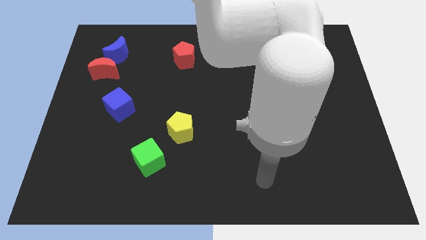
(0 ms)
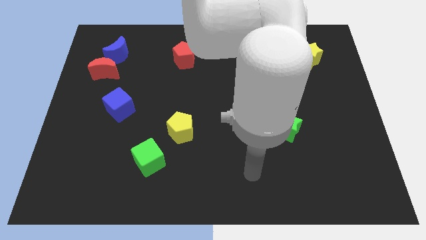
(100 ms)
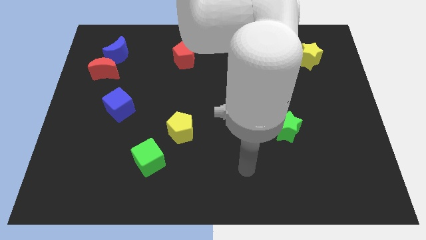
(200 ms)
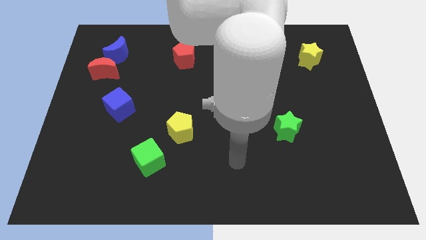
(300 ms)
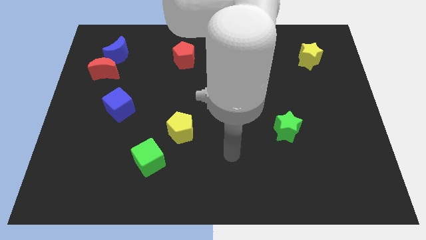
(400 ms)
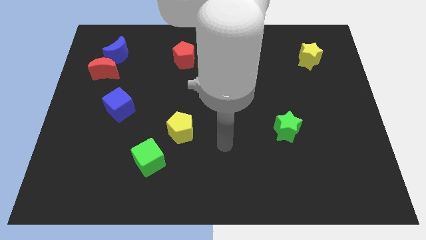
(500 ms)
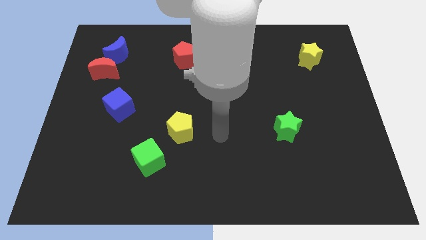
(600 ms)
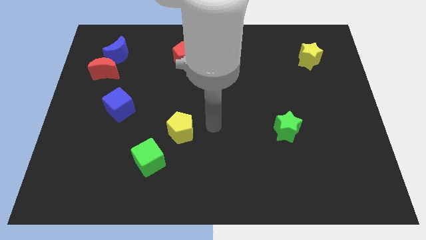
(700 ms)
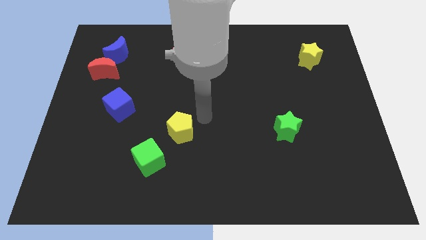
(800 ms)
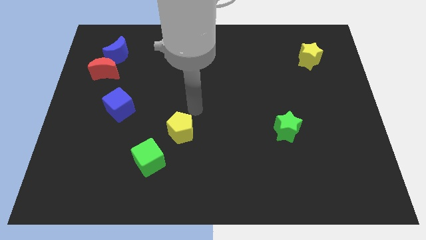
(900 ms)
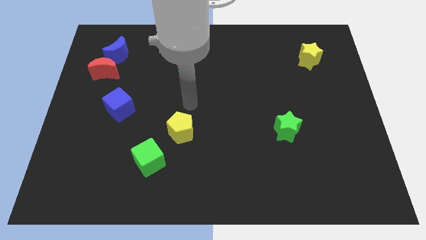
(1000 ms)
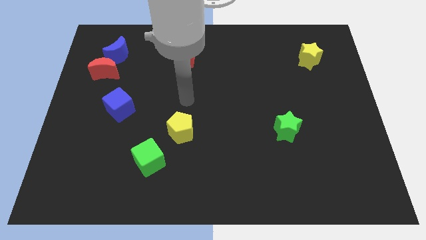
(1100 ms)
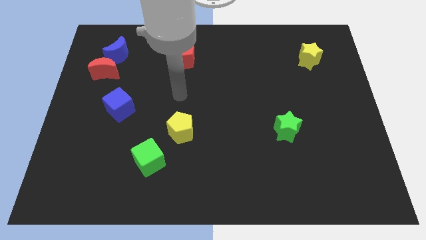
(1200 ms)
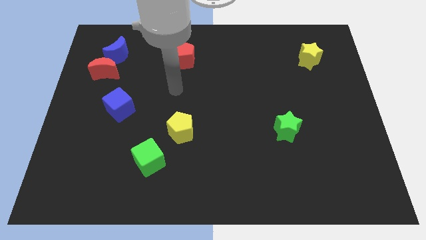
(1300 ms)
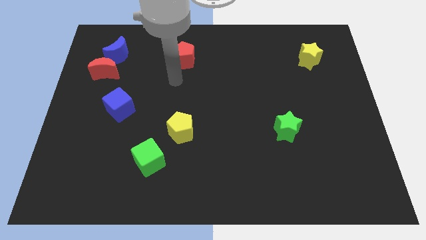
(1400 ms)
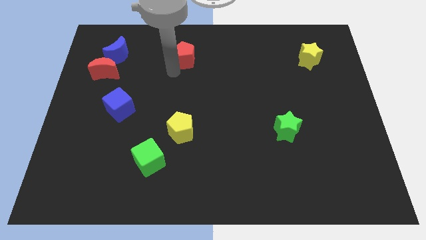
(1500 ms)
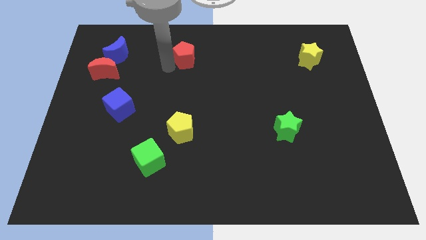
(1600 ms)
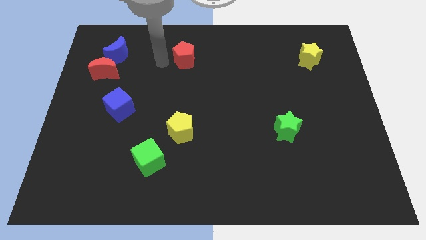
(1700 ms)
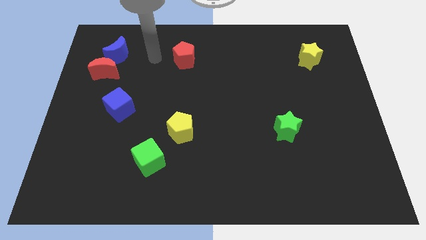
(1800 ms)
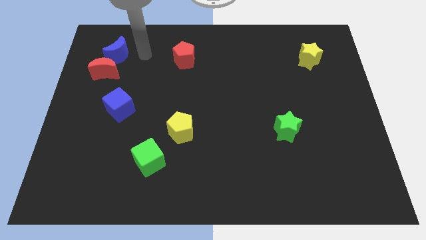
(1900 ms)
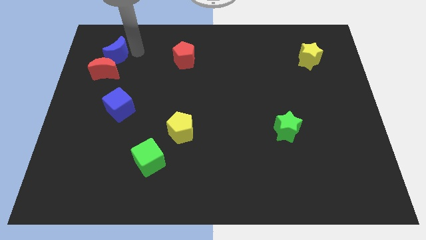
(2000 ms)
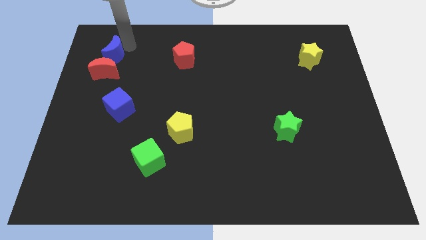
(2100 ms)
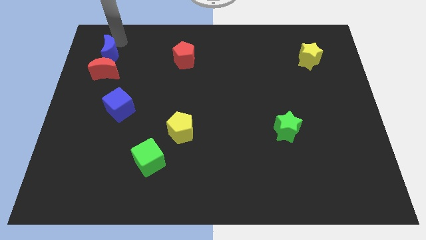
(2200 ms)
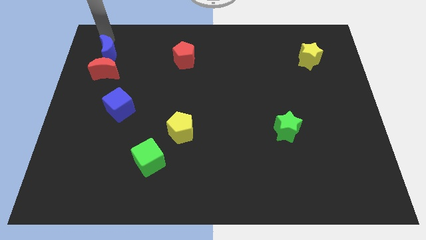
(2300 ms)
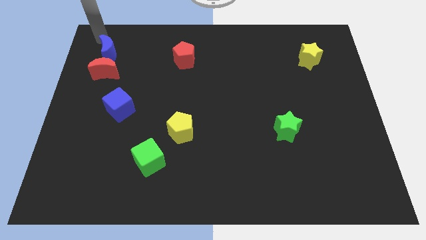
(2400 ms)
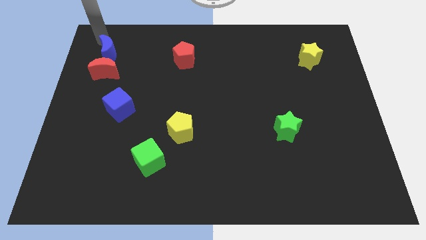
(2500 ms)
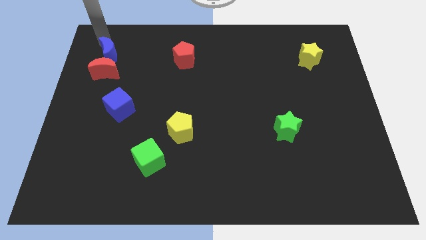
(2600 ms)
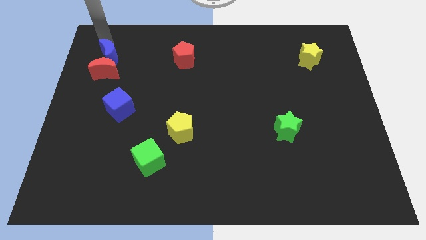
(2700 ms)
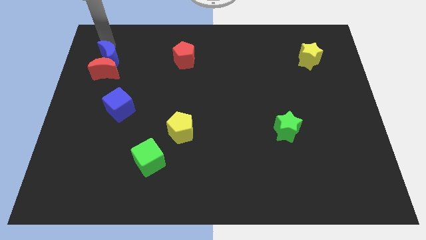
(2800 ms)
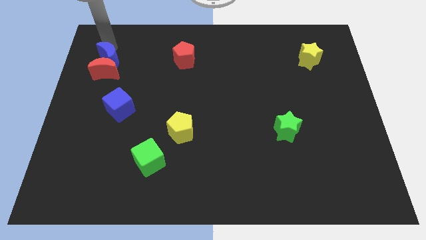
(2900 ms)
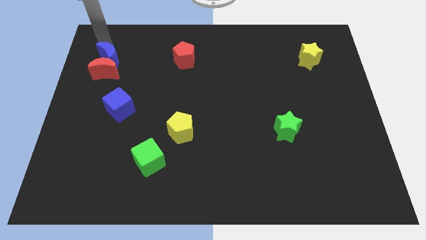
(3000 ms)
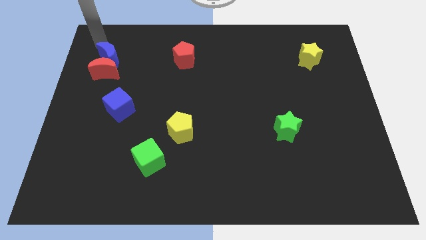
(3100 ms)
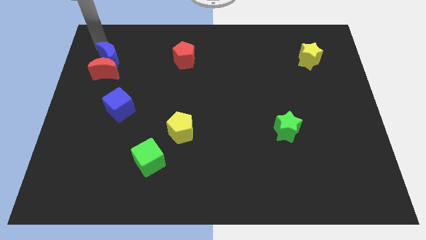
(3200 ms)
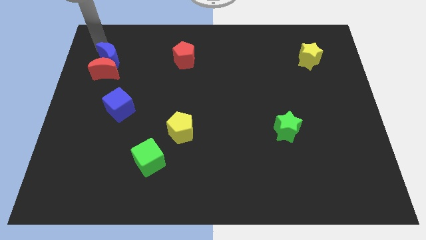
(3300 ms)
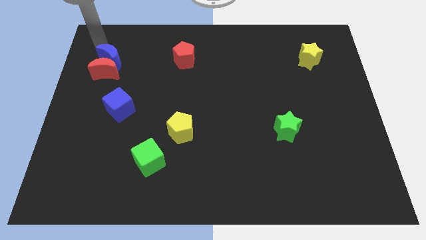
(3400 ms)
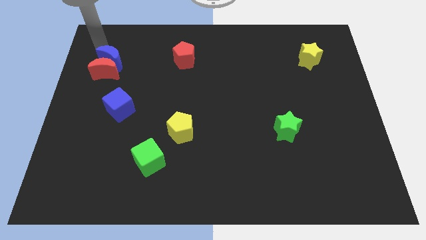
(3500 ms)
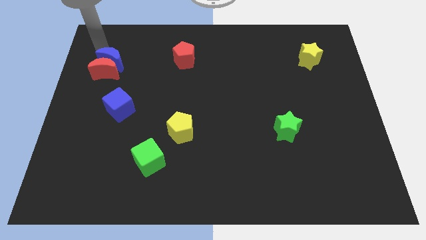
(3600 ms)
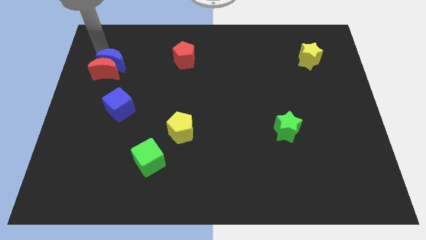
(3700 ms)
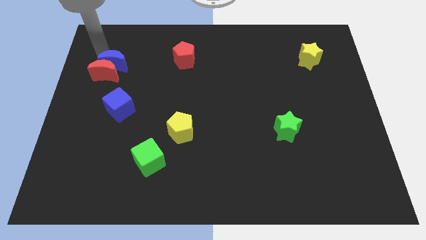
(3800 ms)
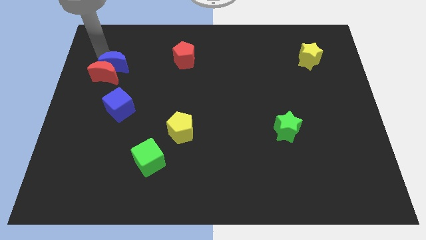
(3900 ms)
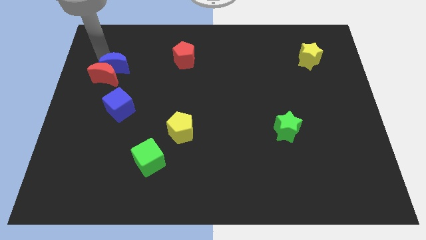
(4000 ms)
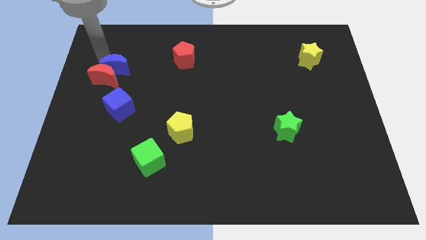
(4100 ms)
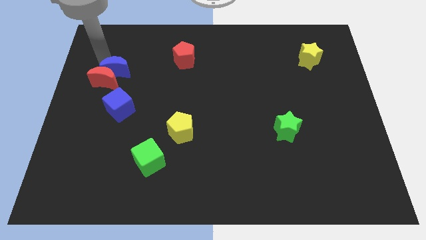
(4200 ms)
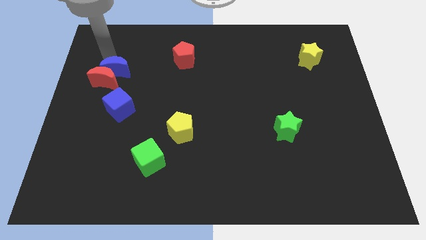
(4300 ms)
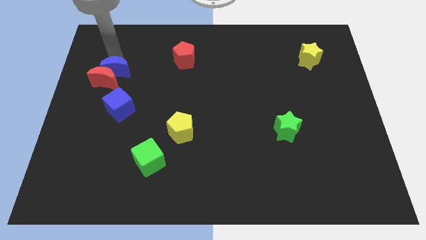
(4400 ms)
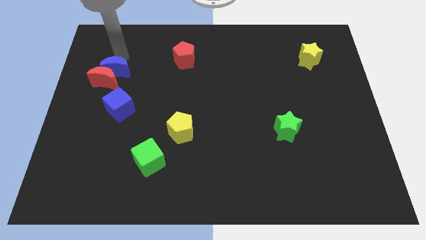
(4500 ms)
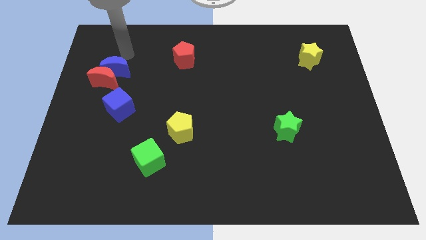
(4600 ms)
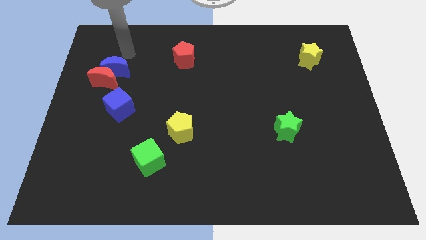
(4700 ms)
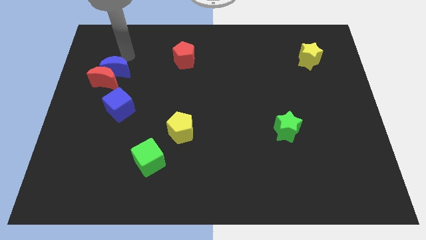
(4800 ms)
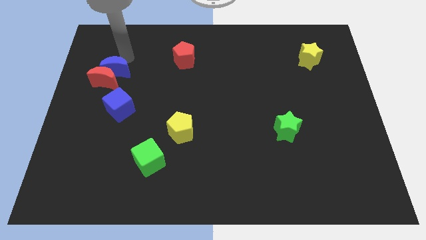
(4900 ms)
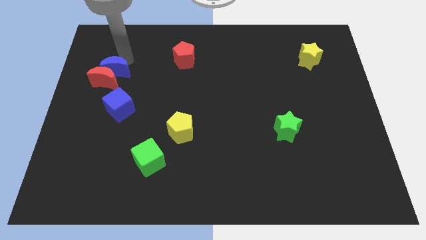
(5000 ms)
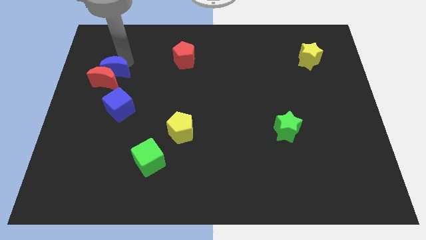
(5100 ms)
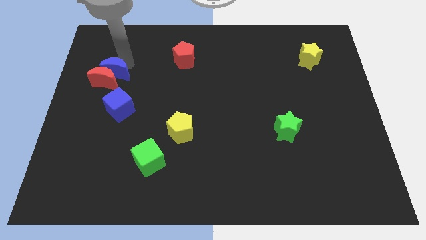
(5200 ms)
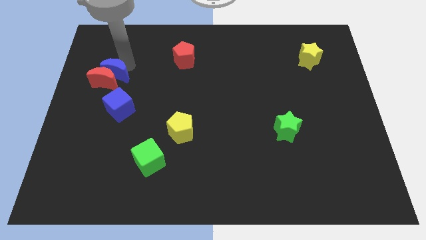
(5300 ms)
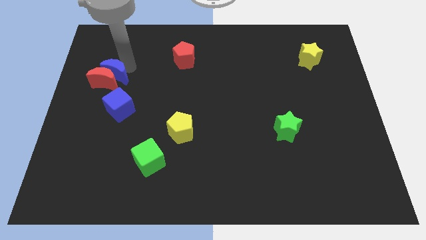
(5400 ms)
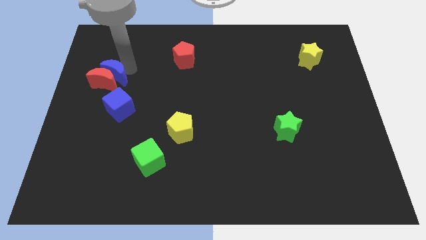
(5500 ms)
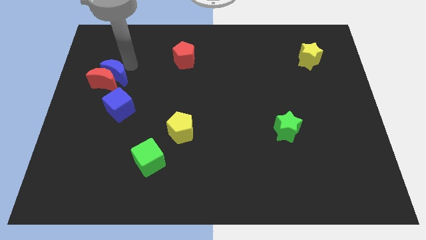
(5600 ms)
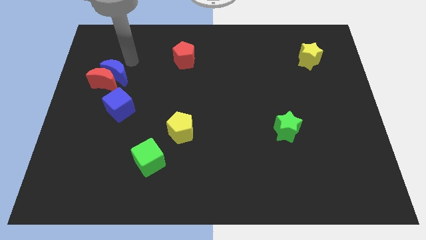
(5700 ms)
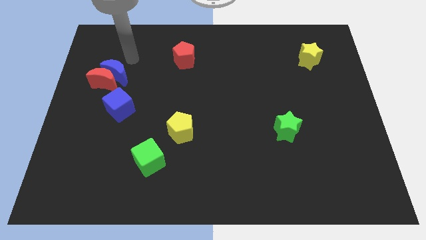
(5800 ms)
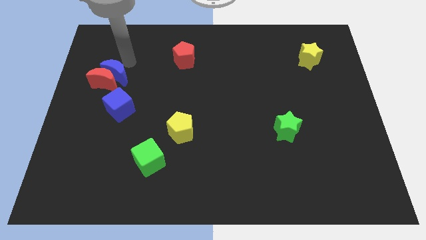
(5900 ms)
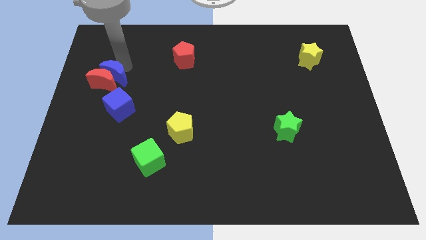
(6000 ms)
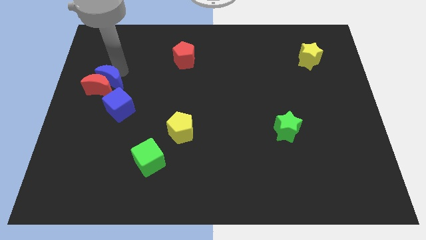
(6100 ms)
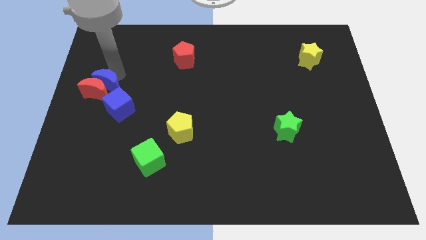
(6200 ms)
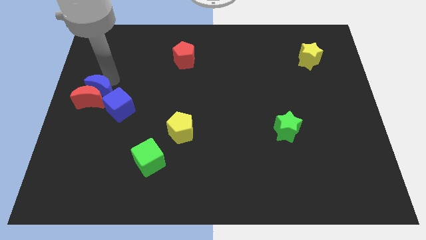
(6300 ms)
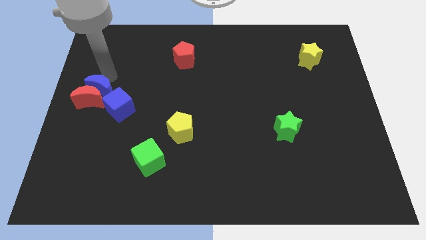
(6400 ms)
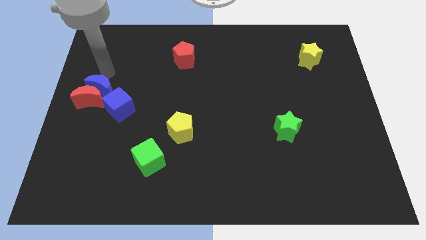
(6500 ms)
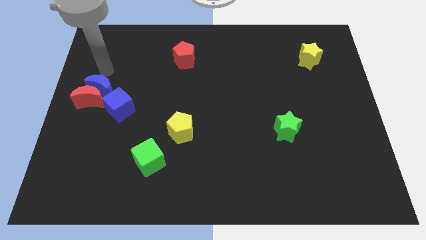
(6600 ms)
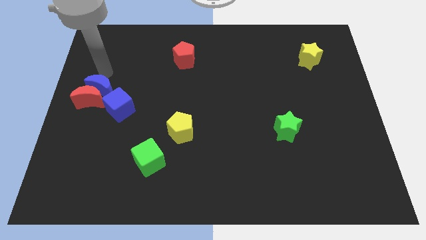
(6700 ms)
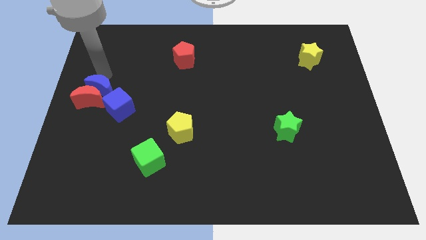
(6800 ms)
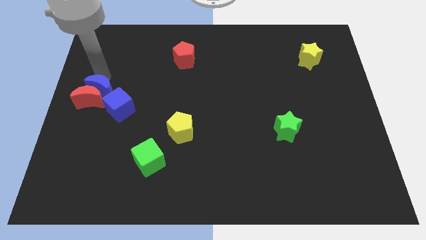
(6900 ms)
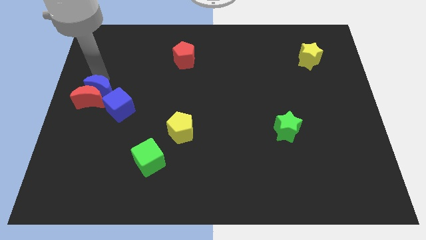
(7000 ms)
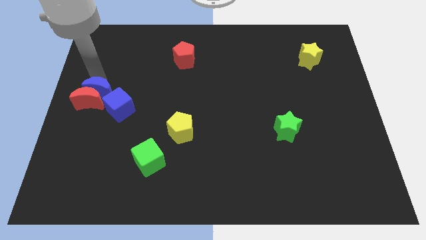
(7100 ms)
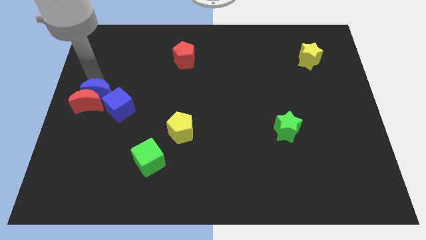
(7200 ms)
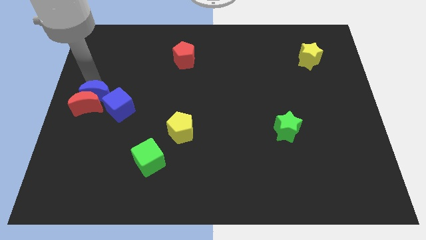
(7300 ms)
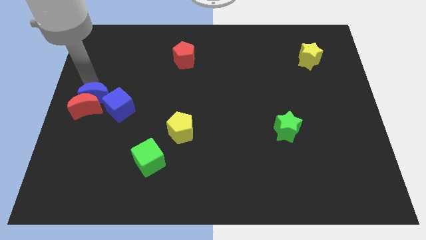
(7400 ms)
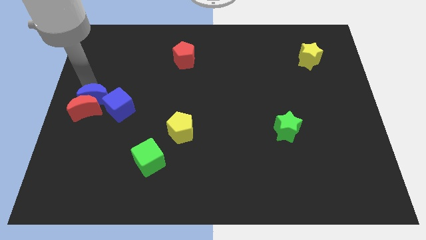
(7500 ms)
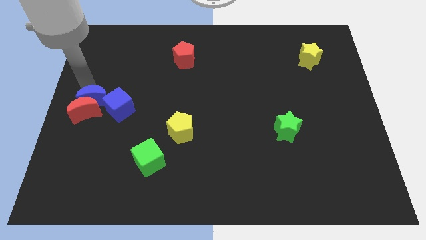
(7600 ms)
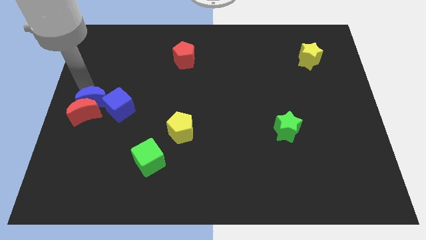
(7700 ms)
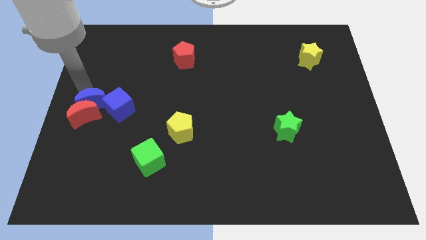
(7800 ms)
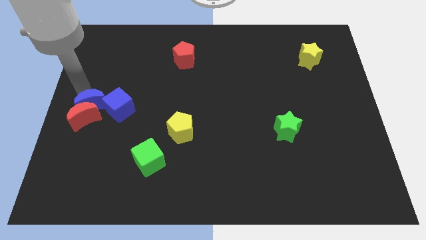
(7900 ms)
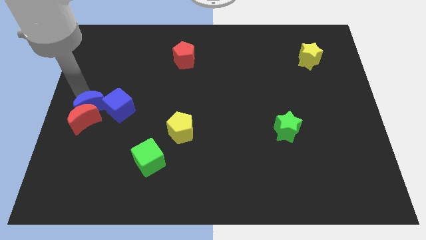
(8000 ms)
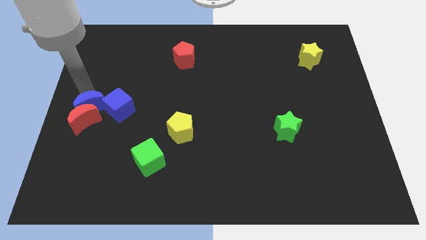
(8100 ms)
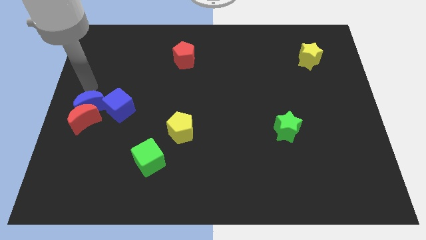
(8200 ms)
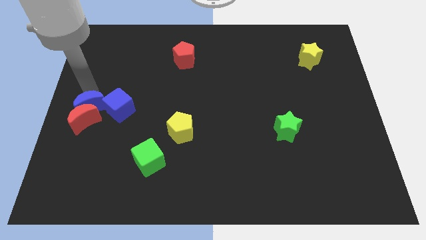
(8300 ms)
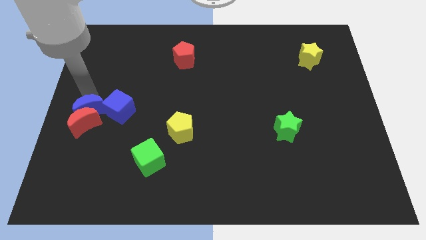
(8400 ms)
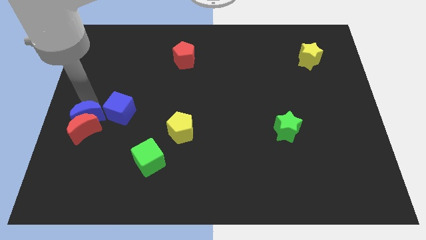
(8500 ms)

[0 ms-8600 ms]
push the blue moon down
